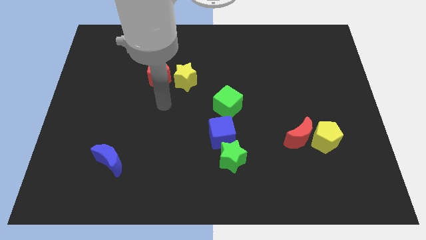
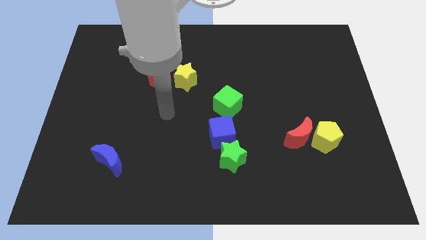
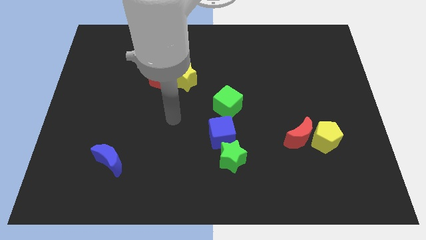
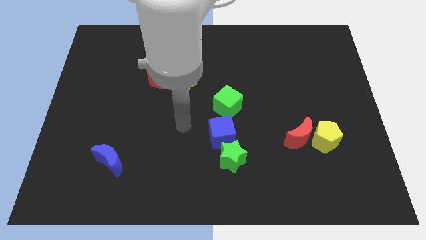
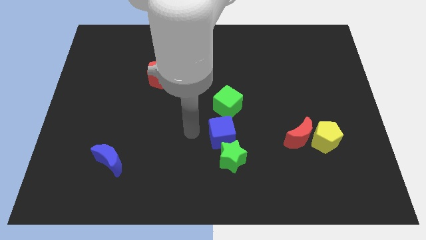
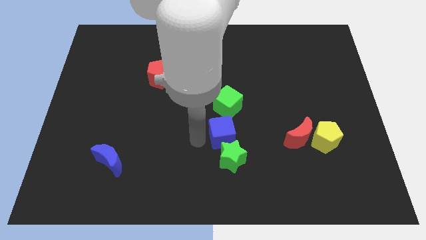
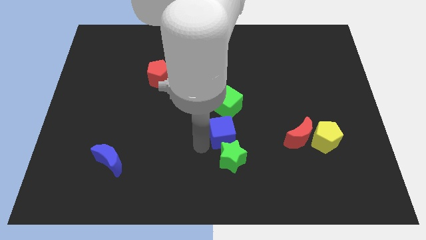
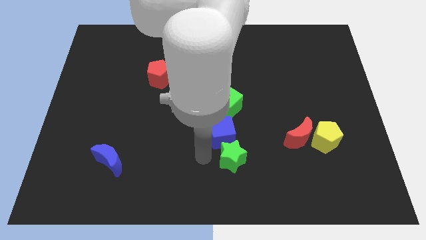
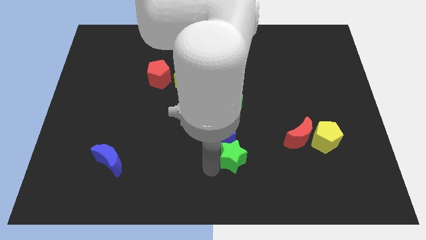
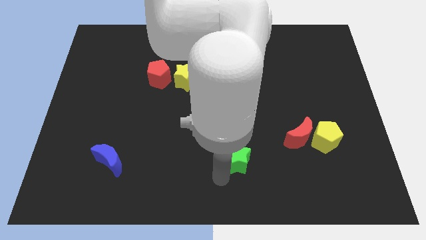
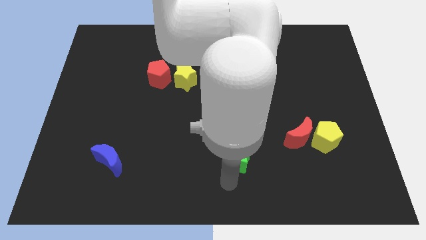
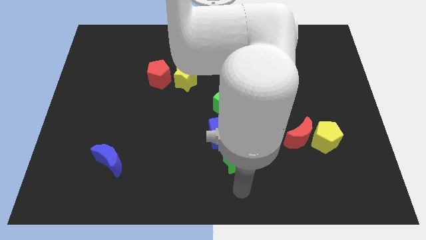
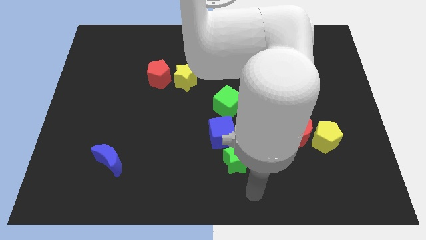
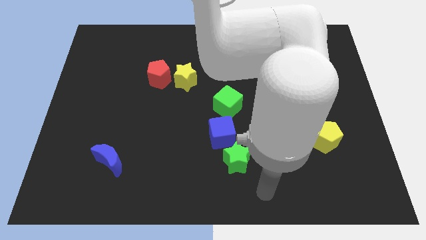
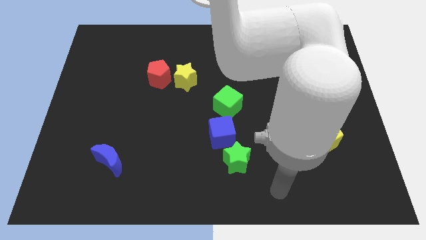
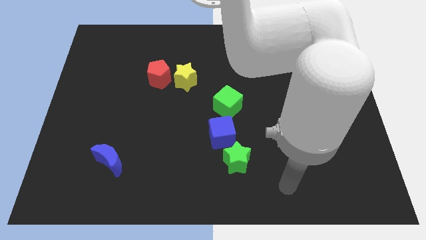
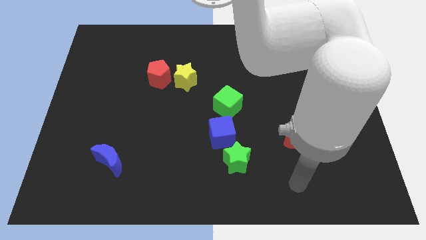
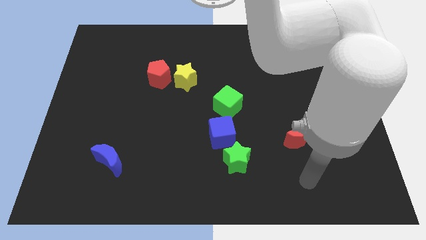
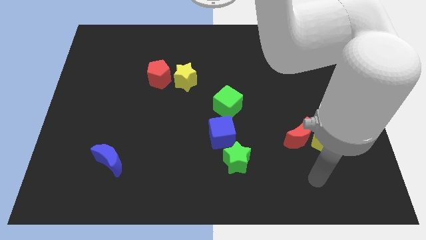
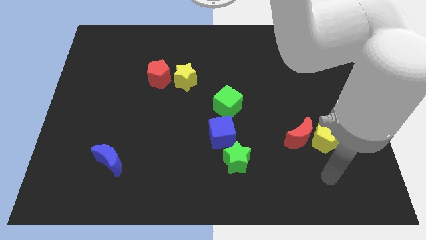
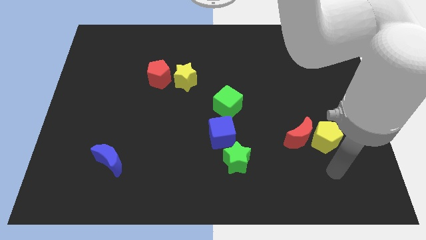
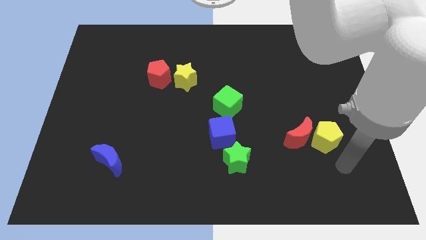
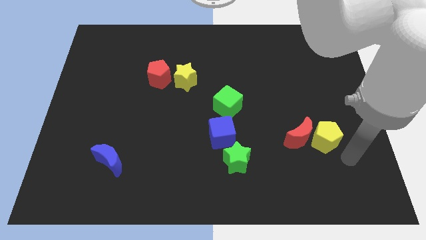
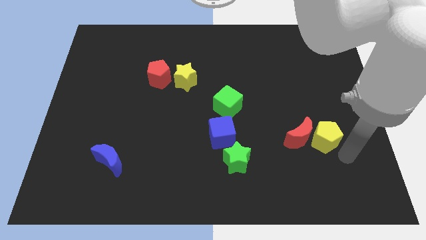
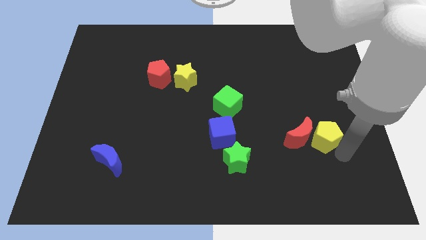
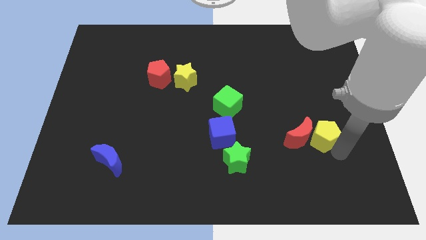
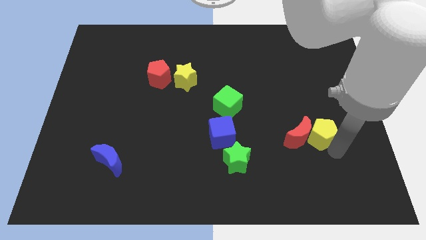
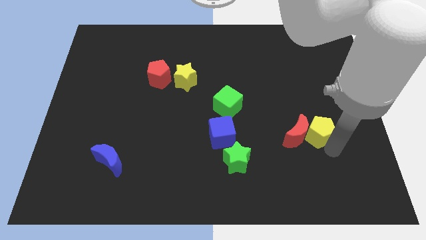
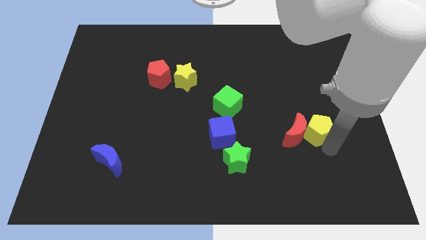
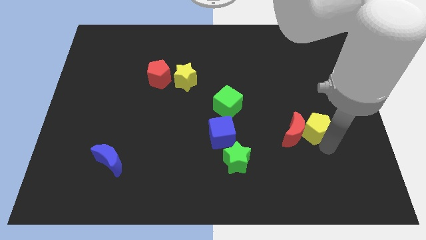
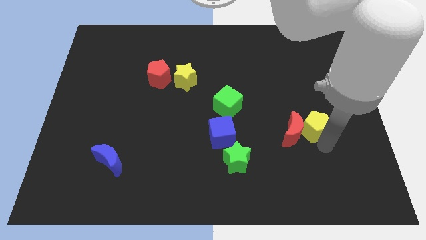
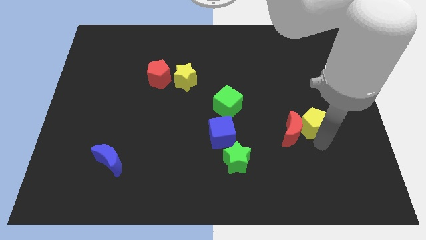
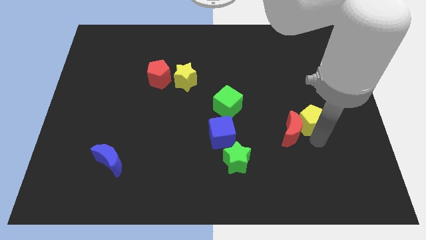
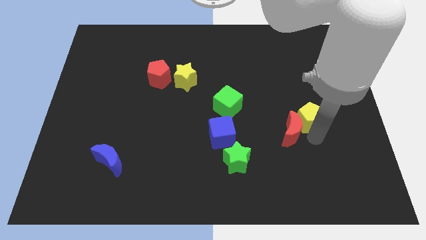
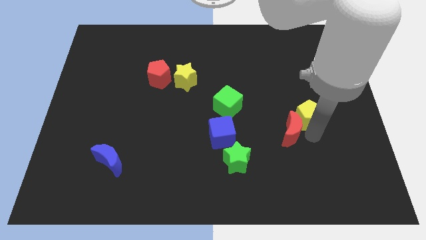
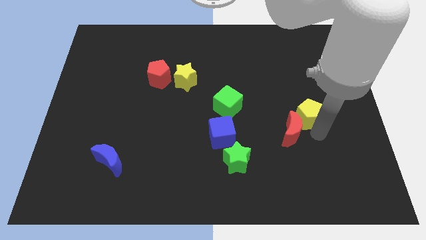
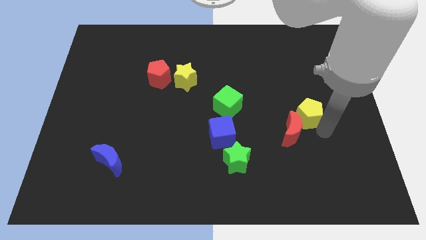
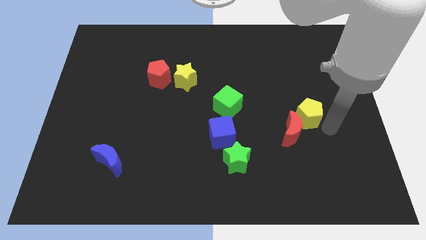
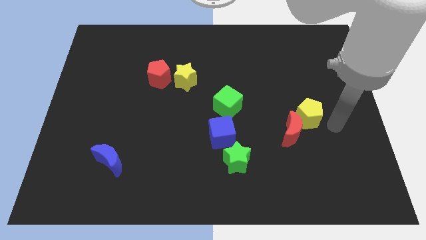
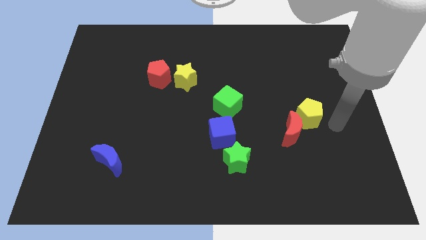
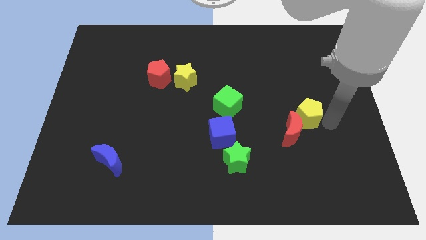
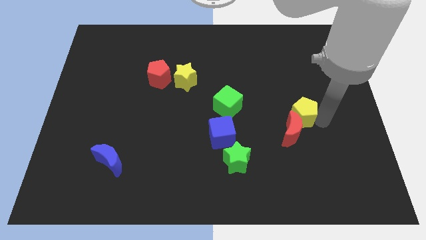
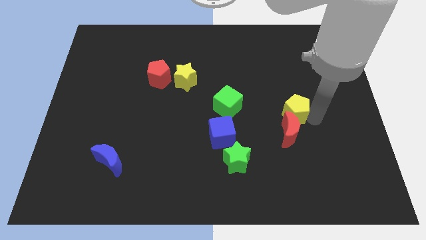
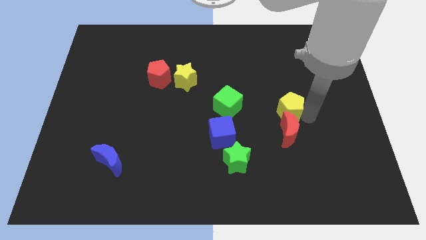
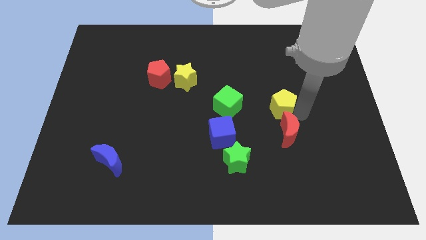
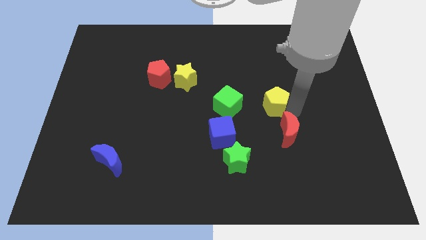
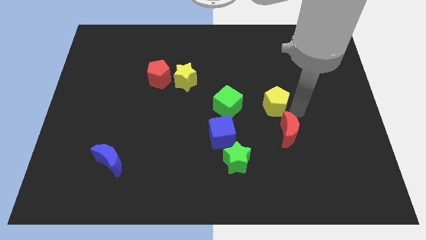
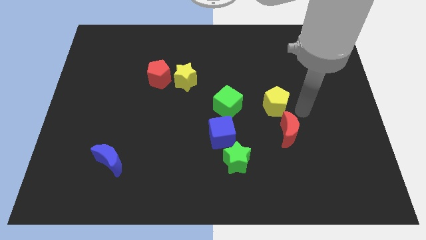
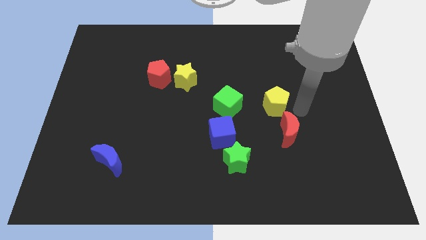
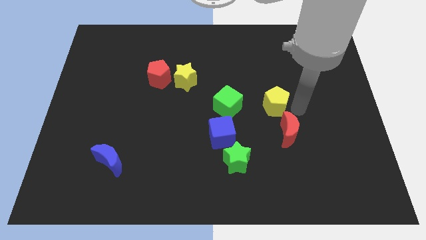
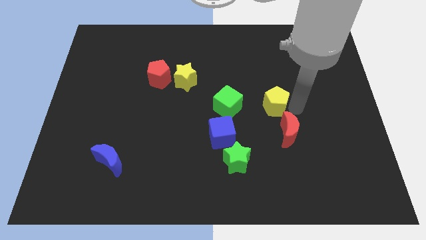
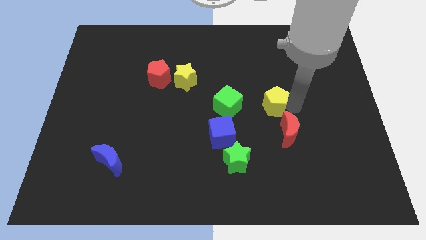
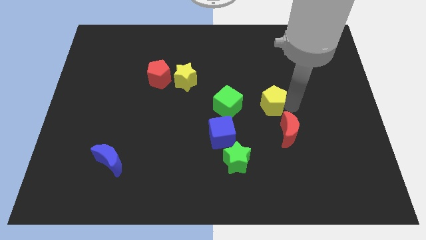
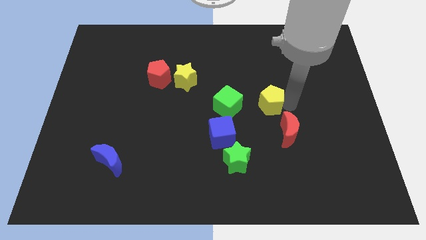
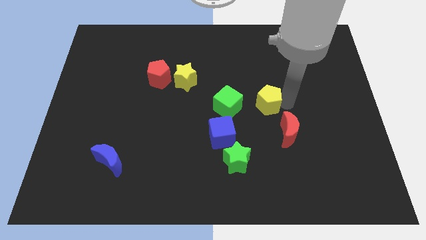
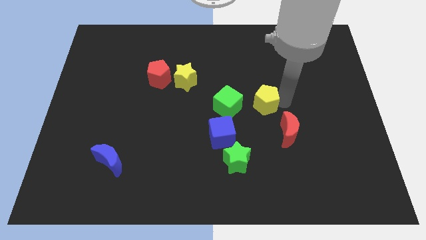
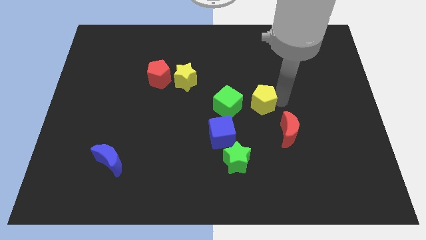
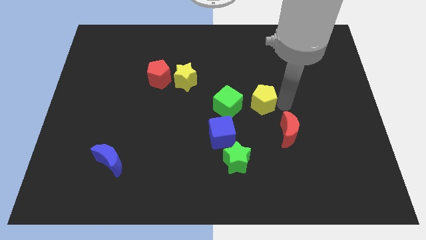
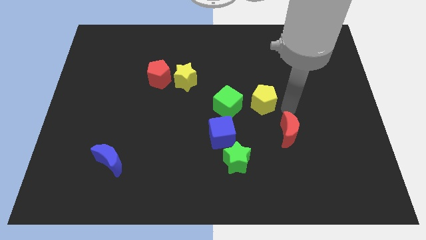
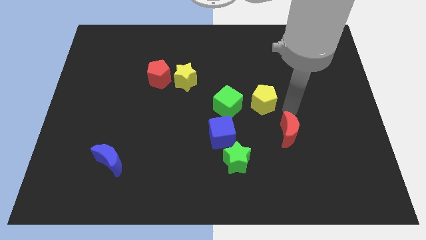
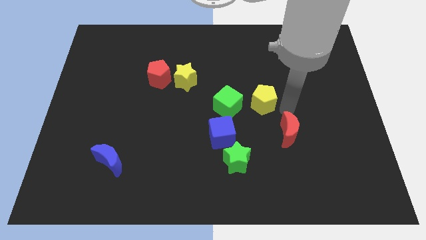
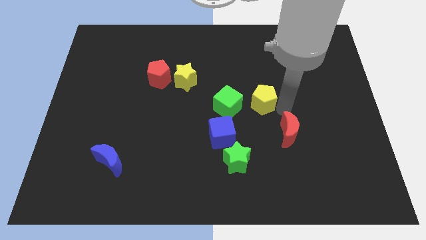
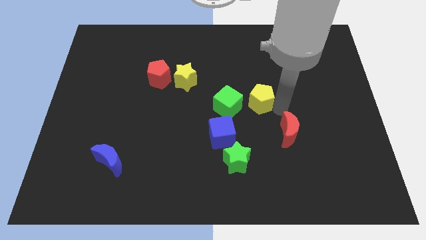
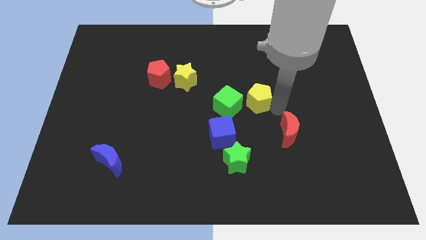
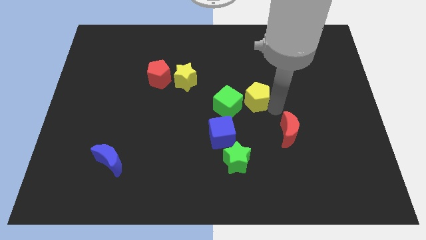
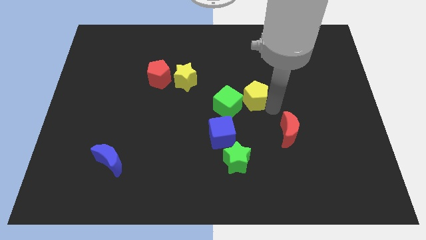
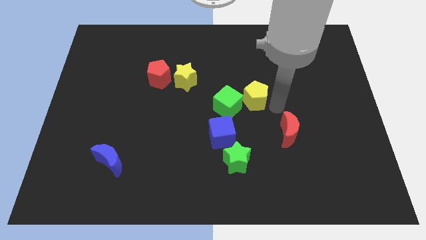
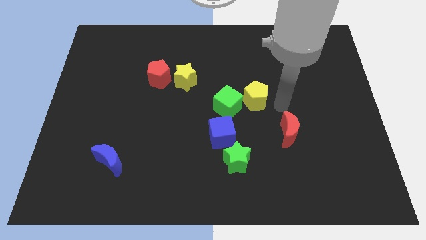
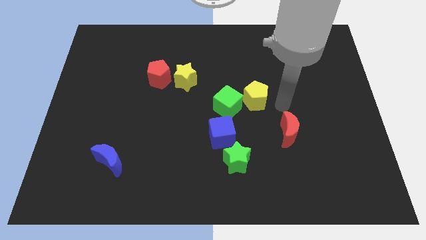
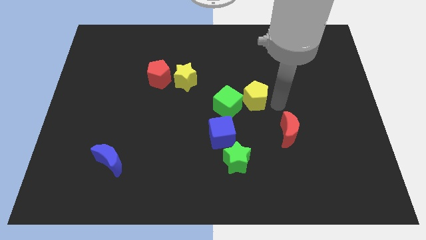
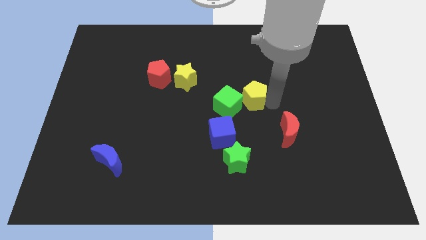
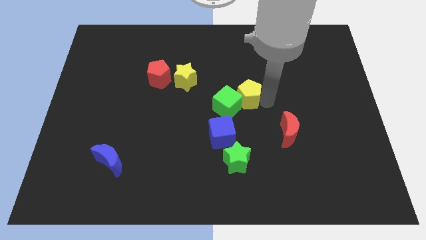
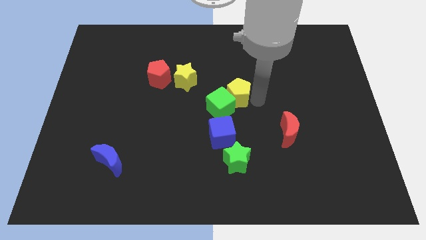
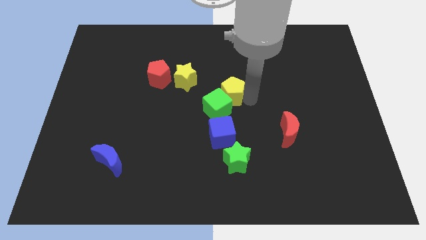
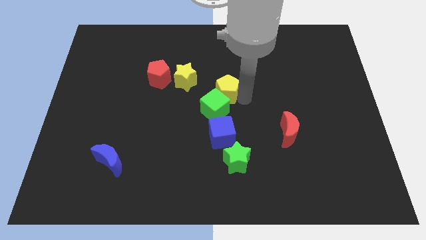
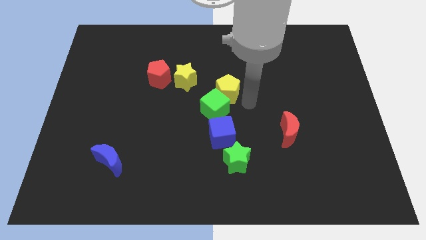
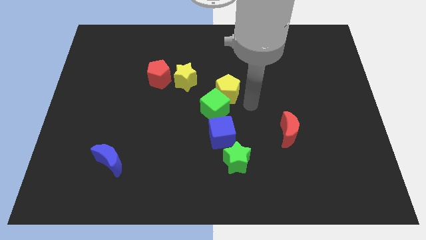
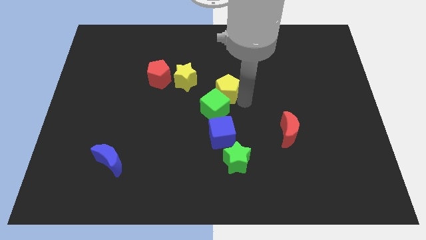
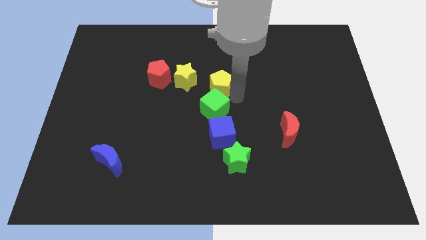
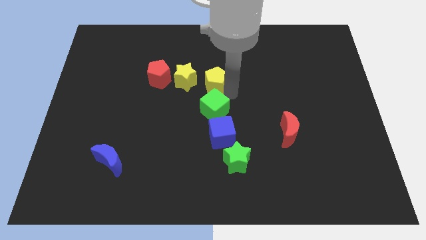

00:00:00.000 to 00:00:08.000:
push the yellow pentagon just right of the red pentagon
